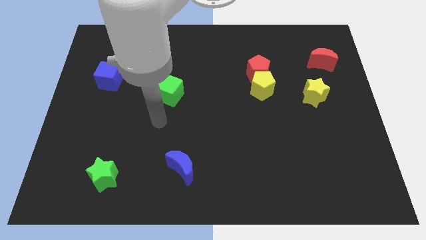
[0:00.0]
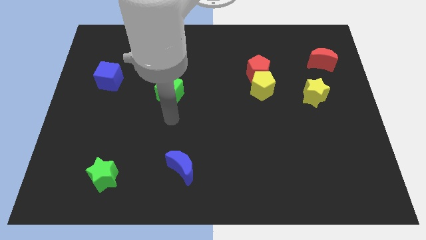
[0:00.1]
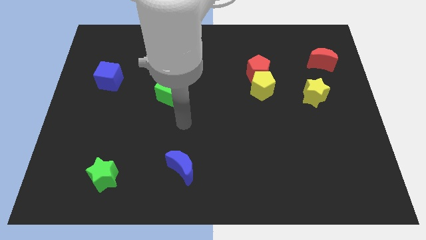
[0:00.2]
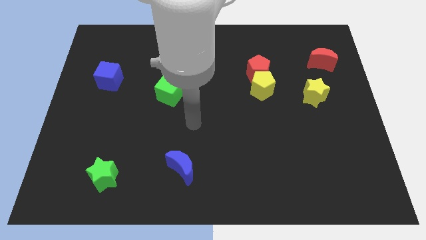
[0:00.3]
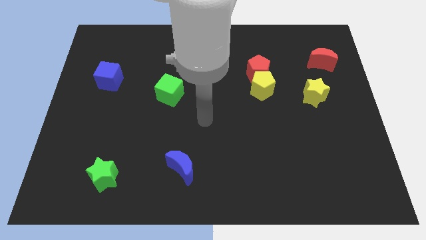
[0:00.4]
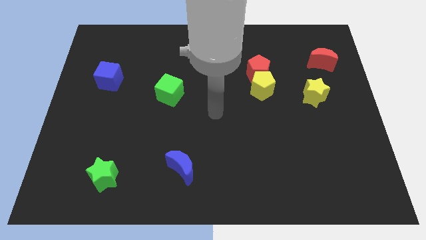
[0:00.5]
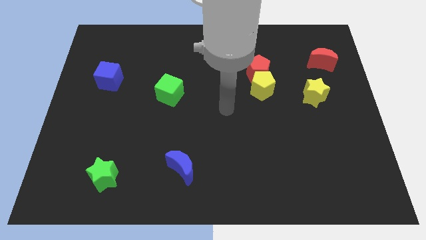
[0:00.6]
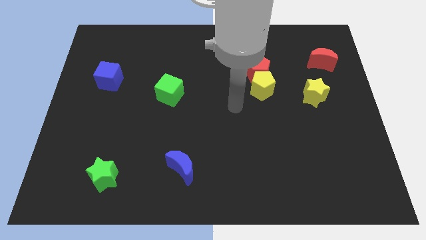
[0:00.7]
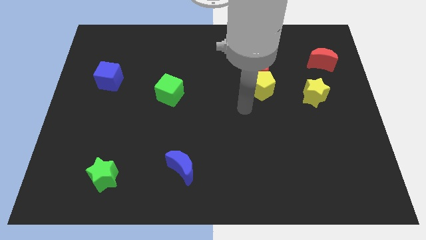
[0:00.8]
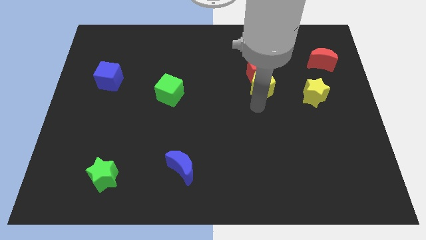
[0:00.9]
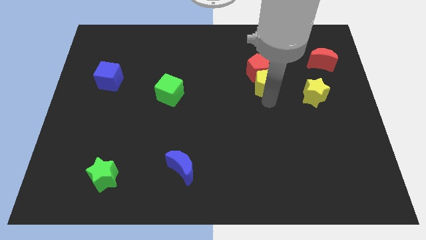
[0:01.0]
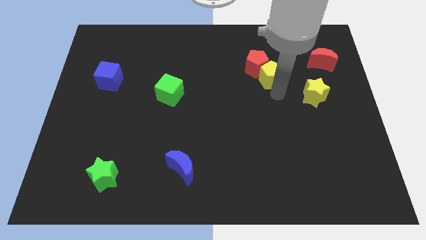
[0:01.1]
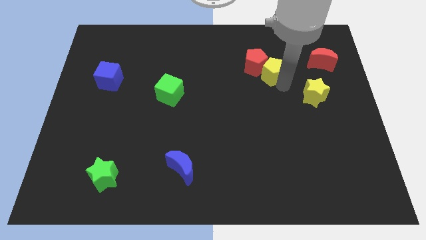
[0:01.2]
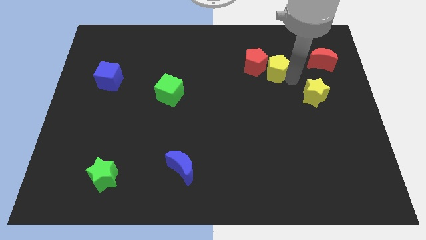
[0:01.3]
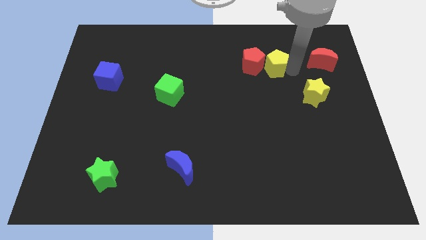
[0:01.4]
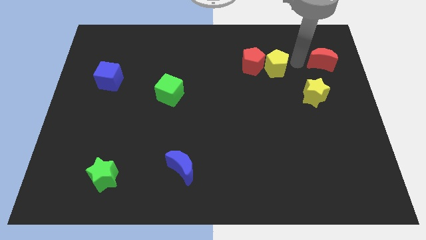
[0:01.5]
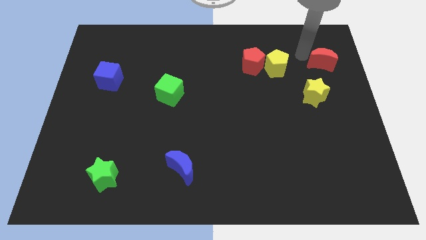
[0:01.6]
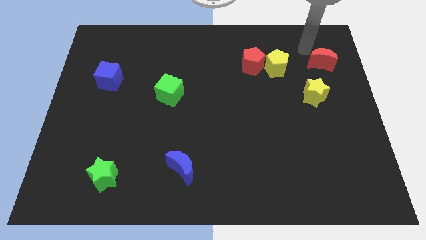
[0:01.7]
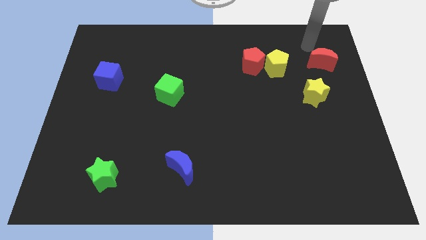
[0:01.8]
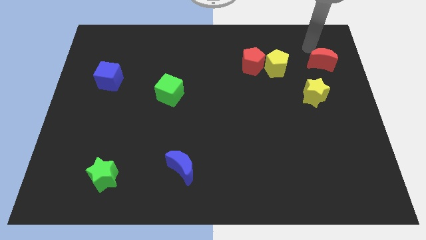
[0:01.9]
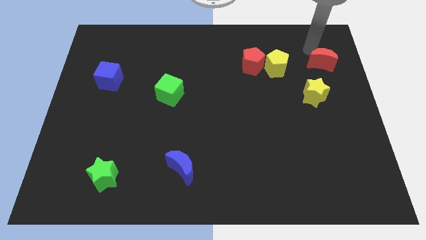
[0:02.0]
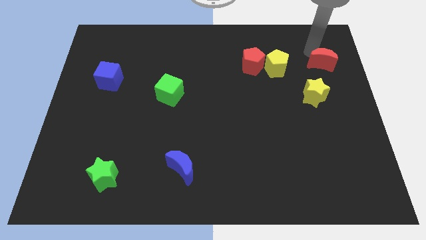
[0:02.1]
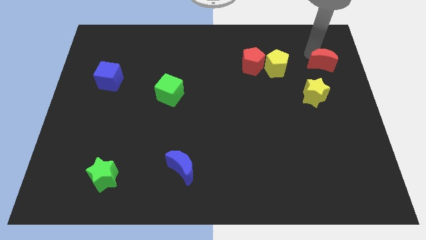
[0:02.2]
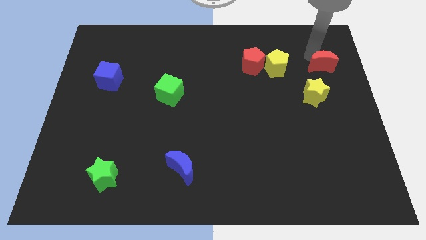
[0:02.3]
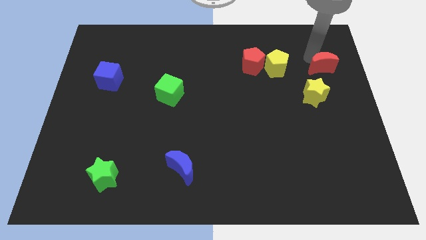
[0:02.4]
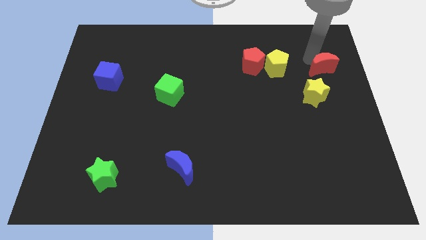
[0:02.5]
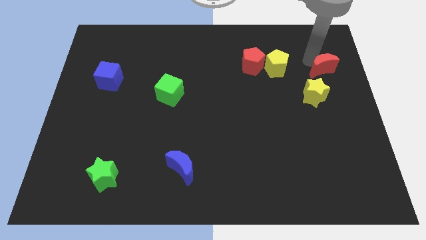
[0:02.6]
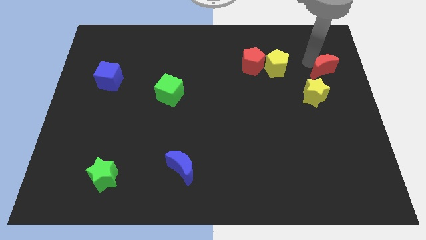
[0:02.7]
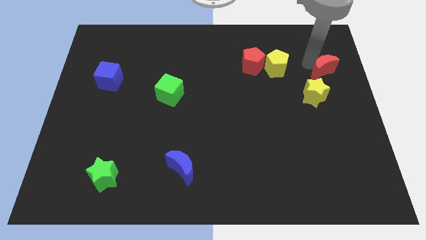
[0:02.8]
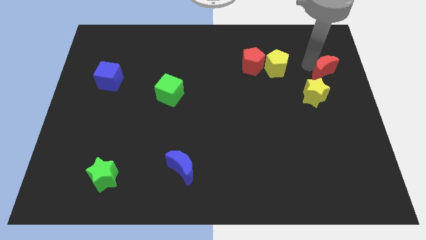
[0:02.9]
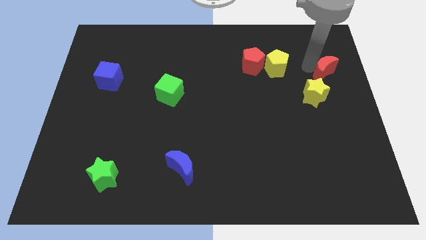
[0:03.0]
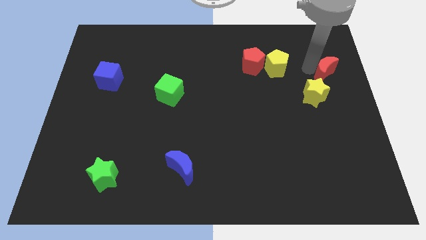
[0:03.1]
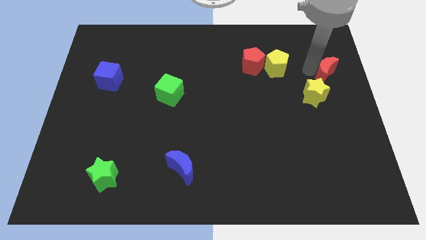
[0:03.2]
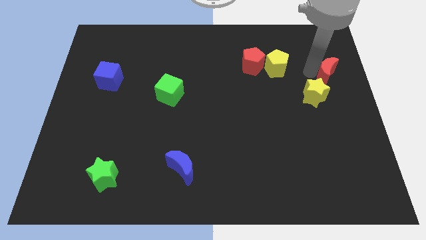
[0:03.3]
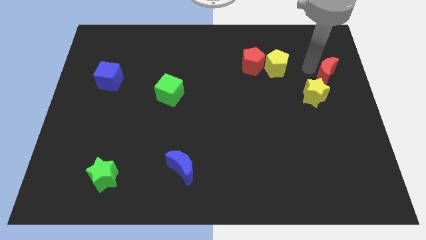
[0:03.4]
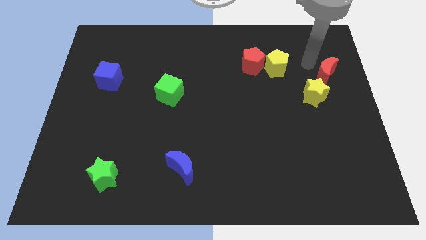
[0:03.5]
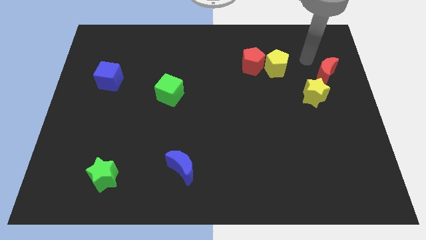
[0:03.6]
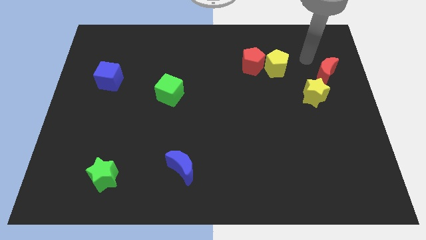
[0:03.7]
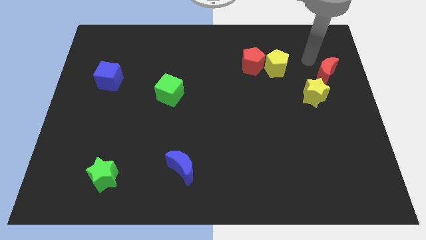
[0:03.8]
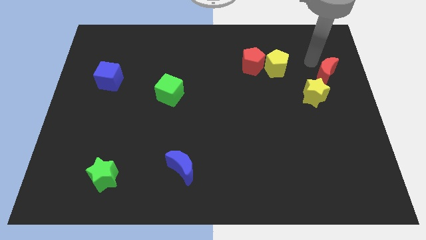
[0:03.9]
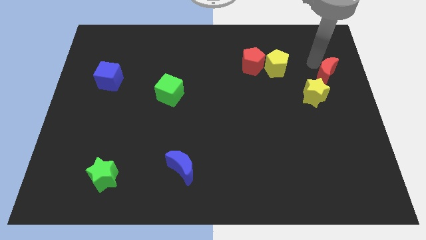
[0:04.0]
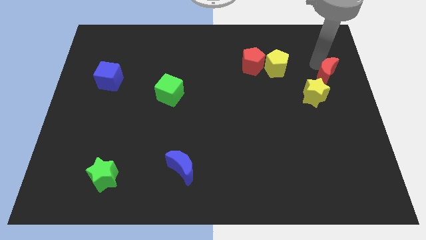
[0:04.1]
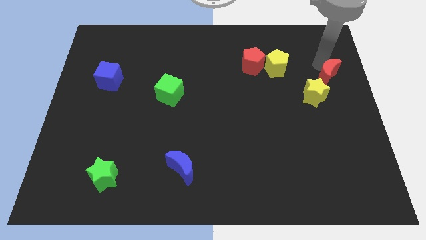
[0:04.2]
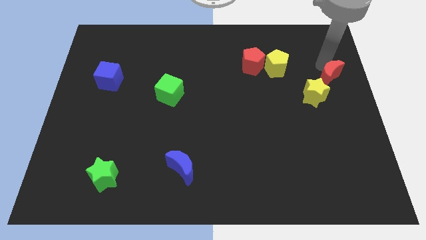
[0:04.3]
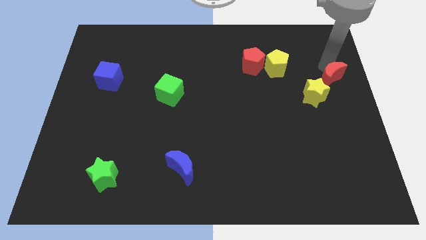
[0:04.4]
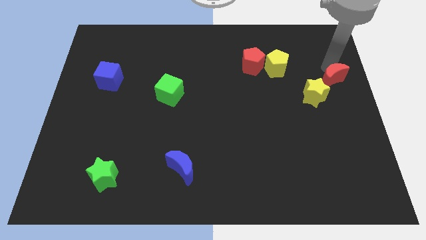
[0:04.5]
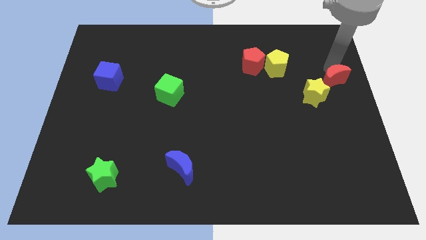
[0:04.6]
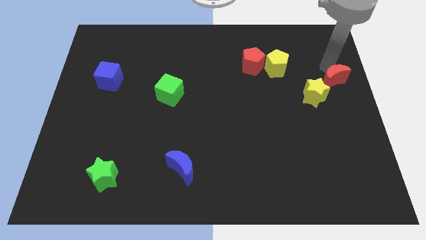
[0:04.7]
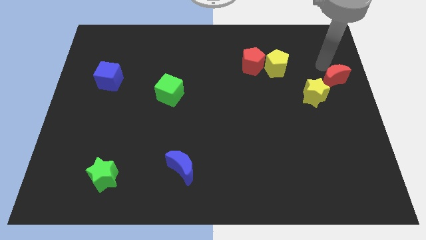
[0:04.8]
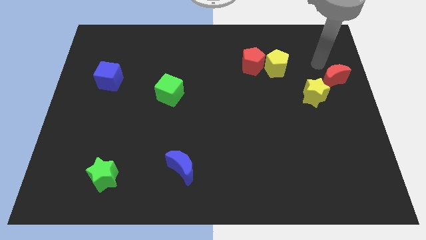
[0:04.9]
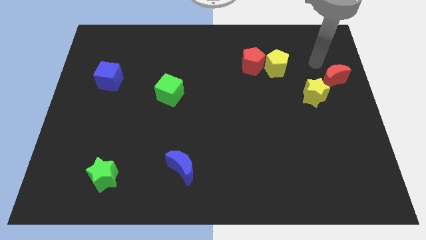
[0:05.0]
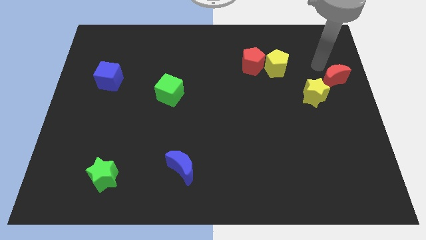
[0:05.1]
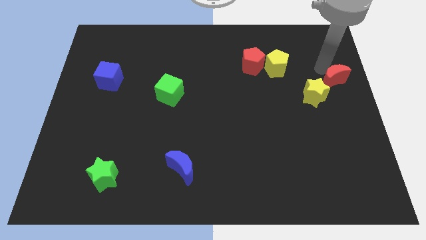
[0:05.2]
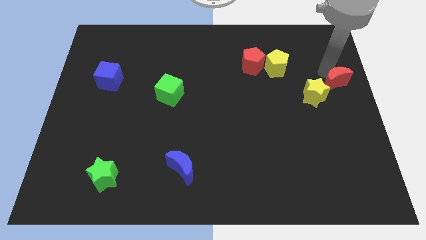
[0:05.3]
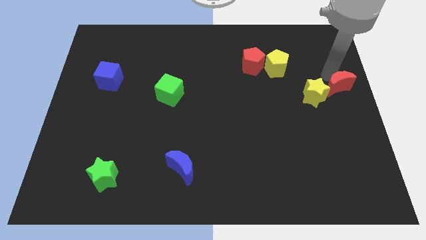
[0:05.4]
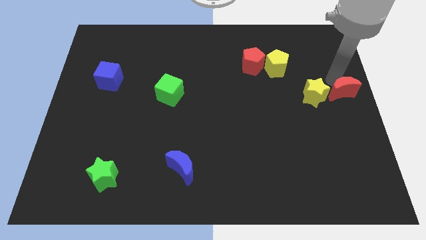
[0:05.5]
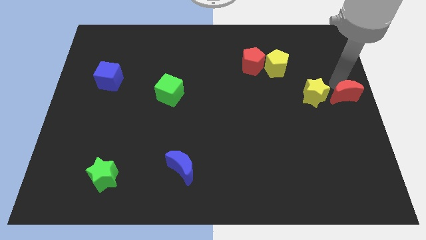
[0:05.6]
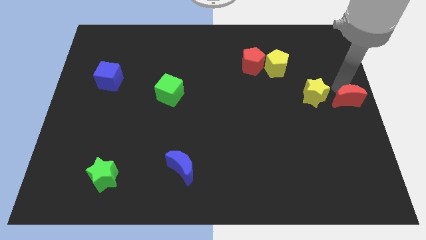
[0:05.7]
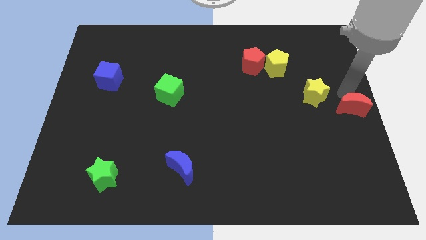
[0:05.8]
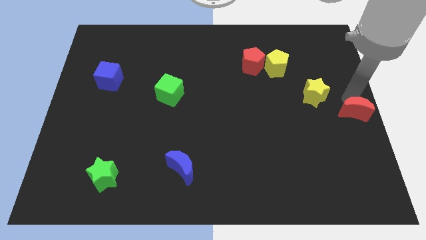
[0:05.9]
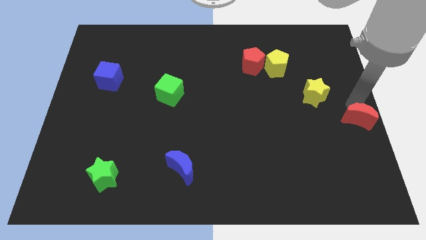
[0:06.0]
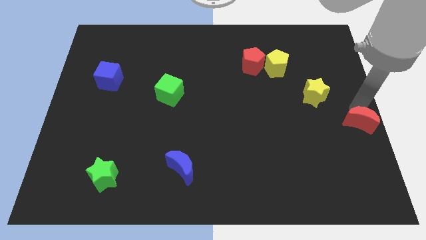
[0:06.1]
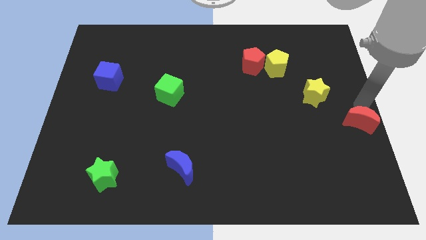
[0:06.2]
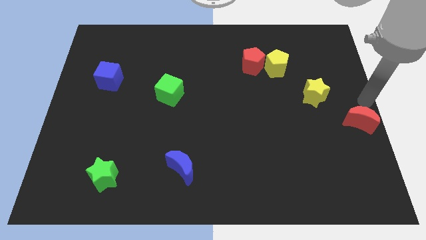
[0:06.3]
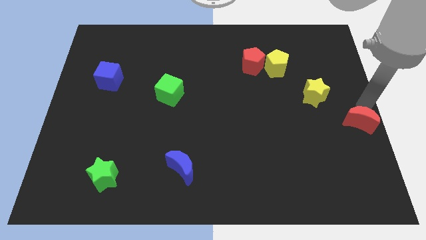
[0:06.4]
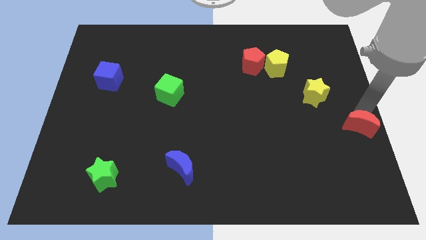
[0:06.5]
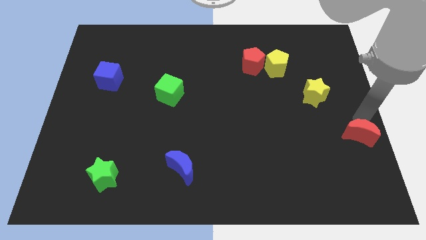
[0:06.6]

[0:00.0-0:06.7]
push the red moon downwards

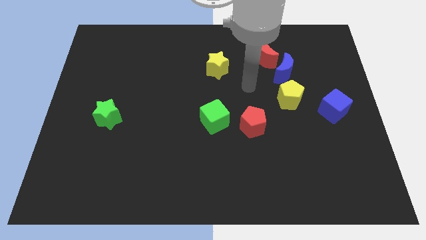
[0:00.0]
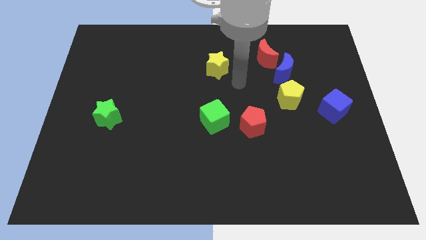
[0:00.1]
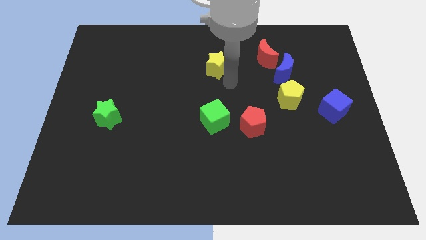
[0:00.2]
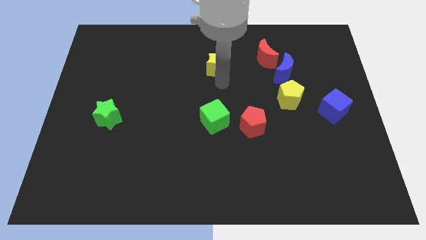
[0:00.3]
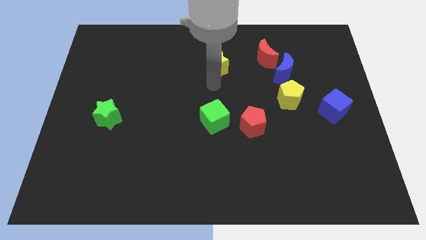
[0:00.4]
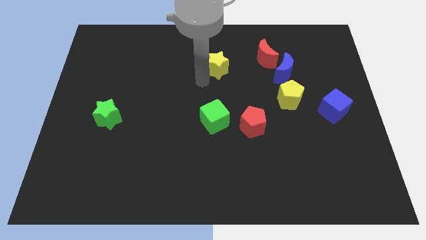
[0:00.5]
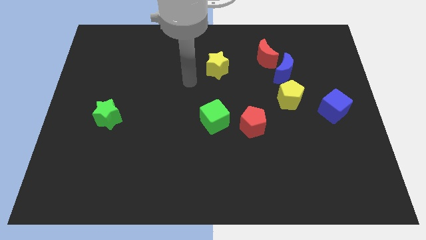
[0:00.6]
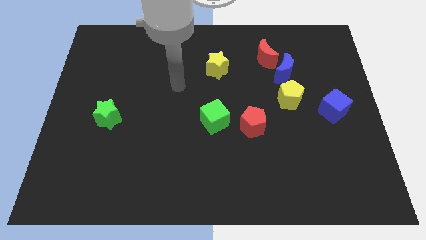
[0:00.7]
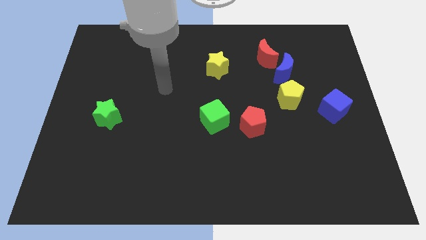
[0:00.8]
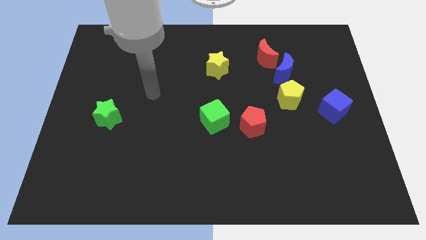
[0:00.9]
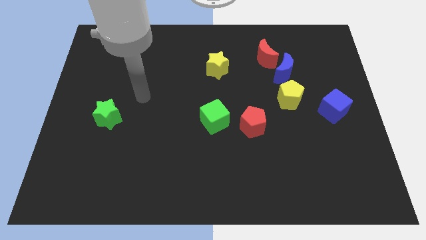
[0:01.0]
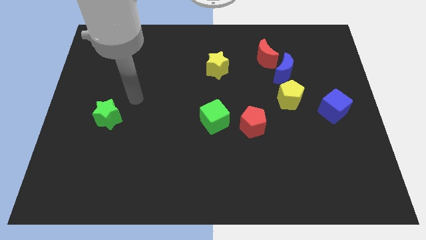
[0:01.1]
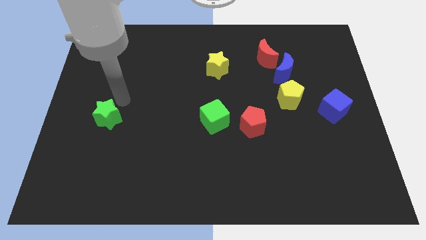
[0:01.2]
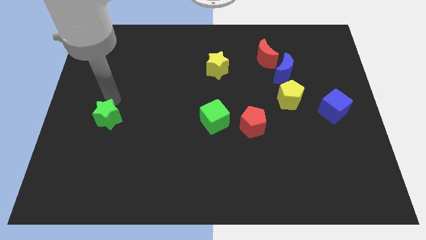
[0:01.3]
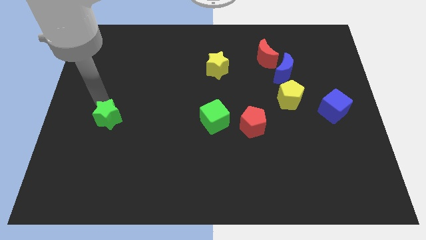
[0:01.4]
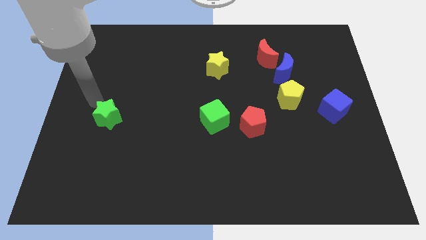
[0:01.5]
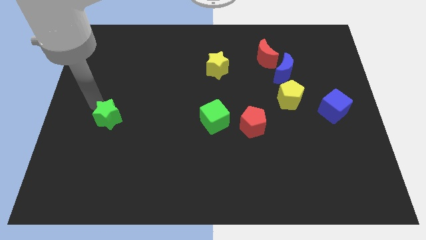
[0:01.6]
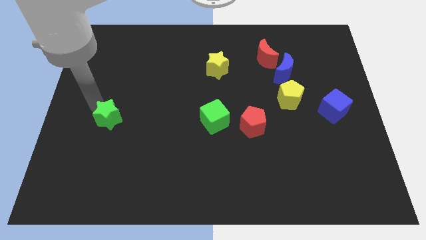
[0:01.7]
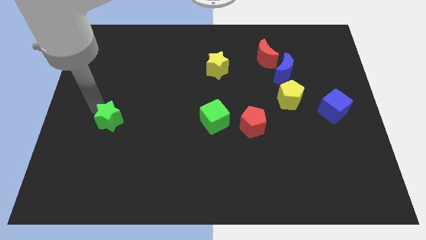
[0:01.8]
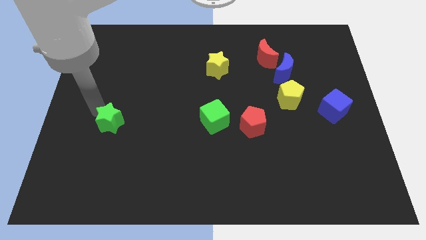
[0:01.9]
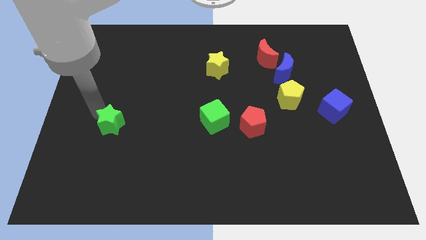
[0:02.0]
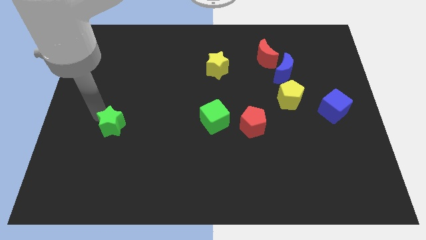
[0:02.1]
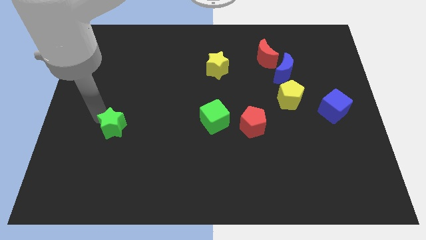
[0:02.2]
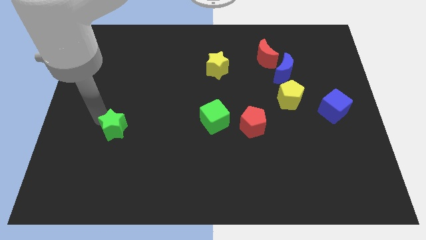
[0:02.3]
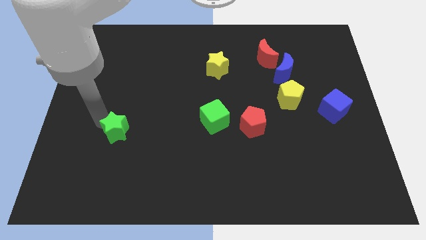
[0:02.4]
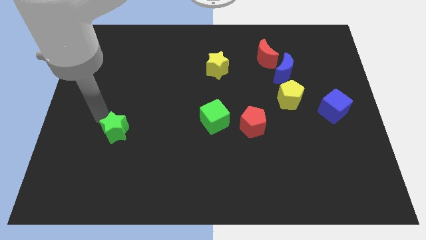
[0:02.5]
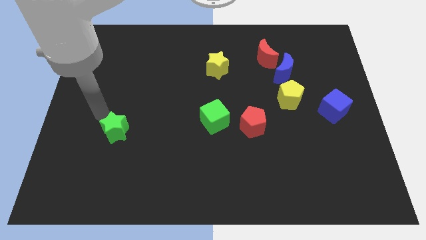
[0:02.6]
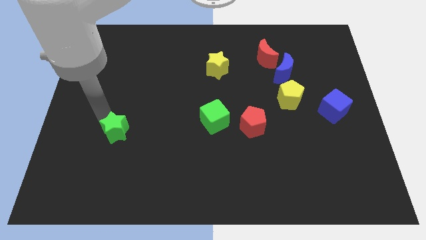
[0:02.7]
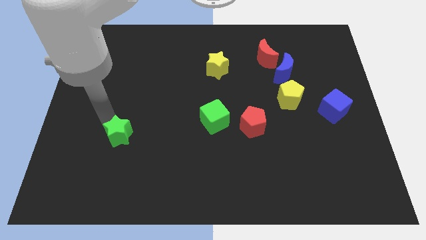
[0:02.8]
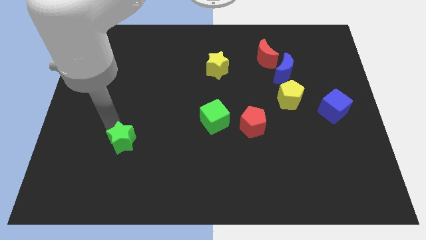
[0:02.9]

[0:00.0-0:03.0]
slightly push the green star diagonally downwards and right
